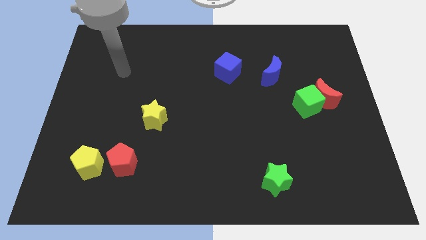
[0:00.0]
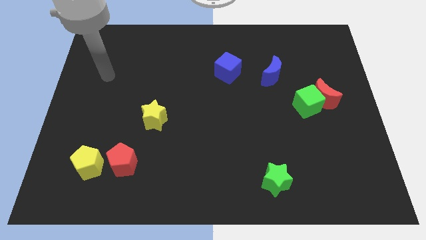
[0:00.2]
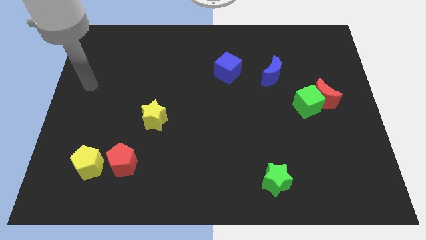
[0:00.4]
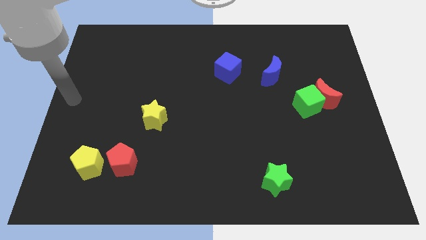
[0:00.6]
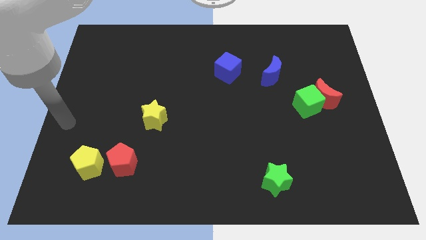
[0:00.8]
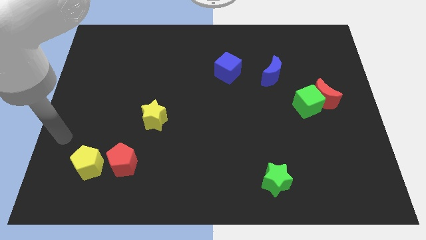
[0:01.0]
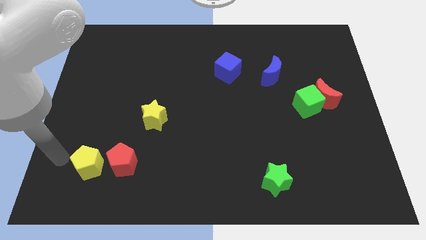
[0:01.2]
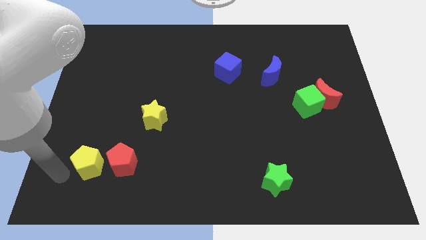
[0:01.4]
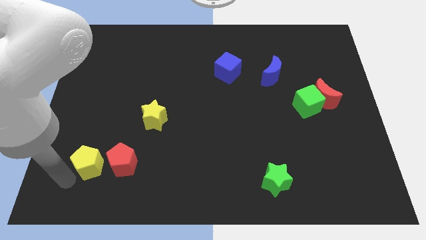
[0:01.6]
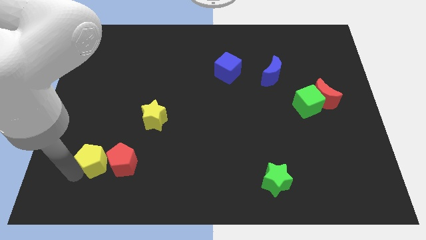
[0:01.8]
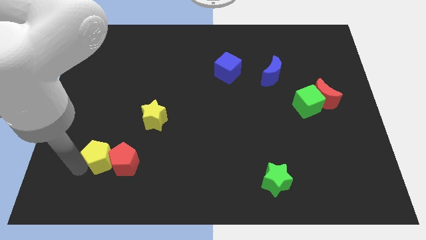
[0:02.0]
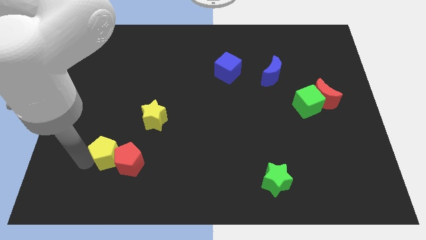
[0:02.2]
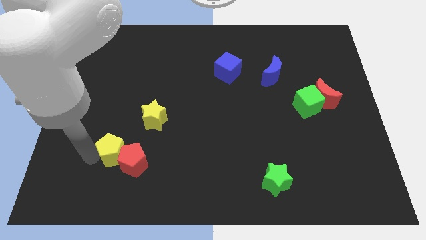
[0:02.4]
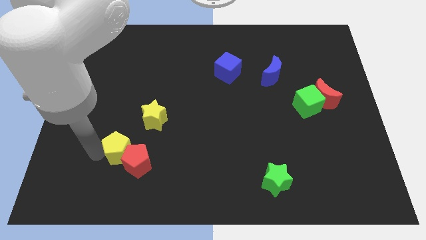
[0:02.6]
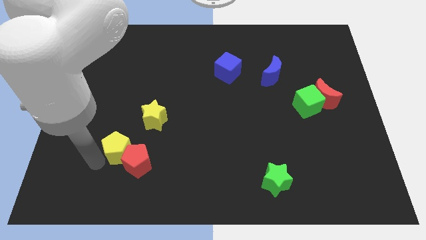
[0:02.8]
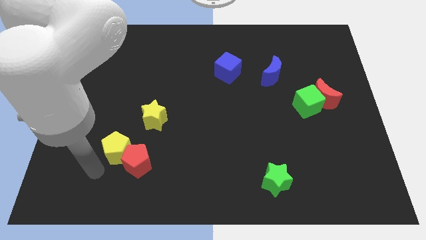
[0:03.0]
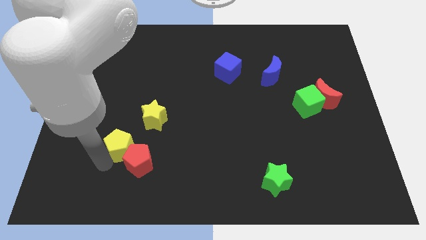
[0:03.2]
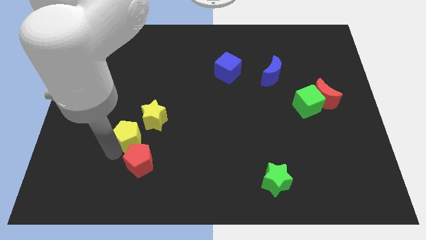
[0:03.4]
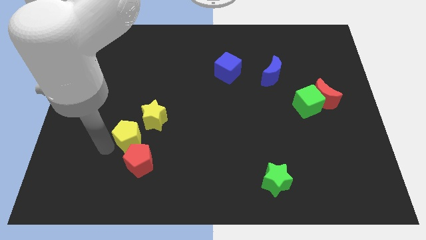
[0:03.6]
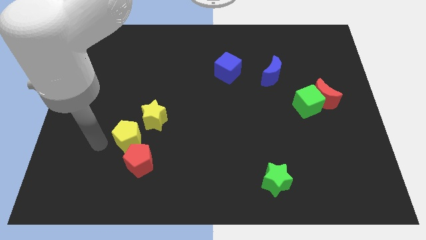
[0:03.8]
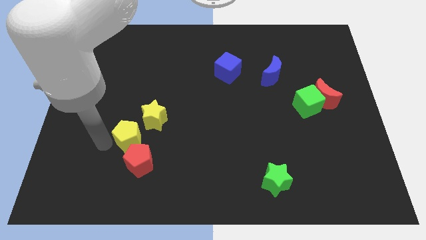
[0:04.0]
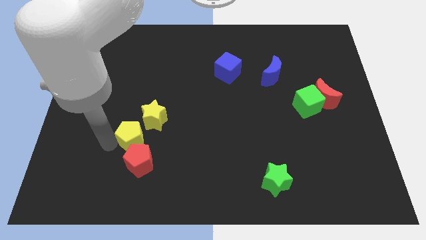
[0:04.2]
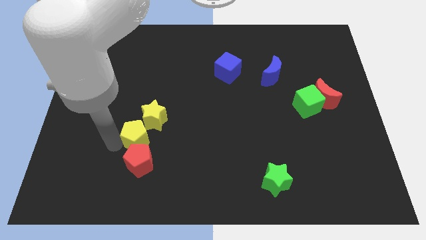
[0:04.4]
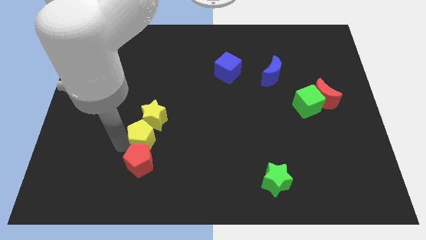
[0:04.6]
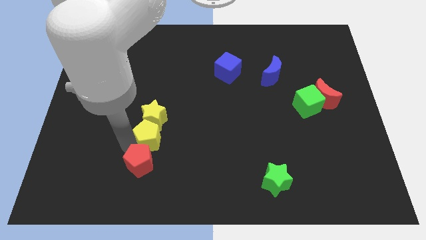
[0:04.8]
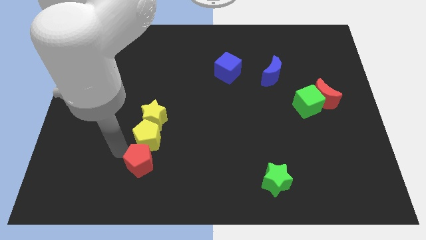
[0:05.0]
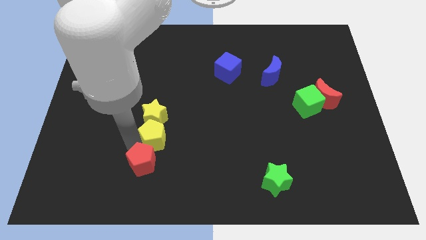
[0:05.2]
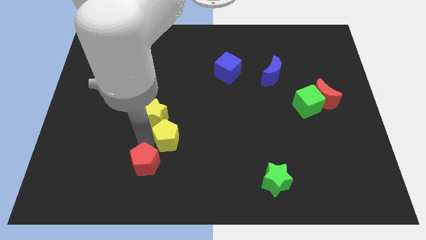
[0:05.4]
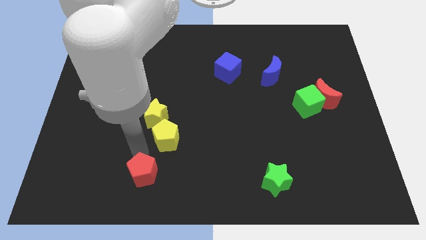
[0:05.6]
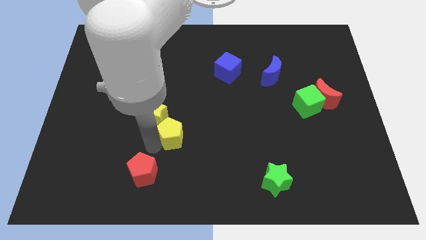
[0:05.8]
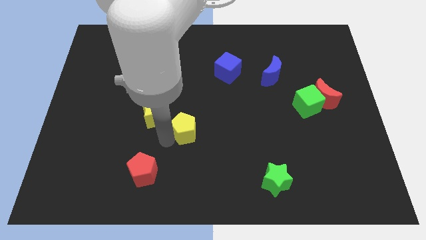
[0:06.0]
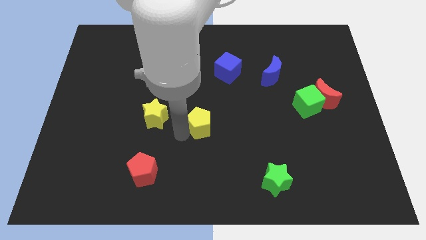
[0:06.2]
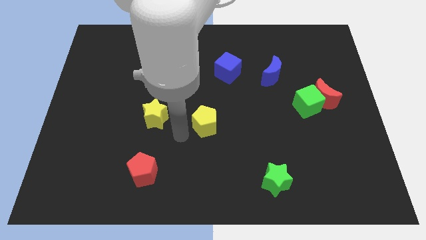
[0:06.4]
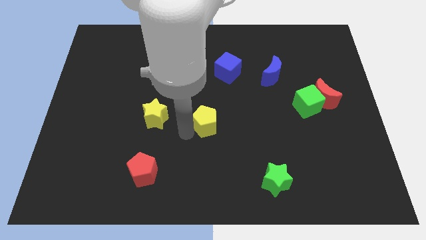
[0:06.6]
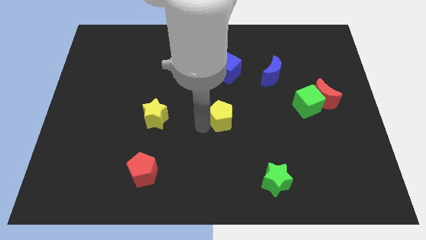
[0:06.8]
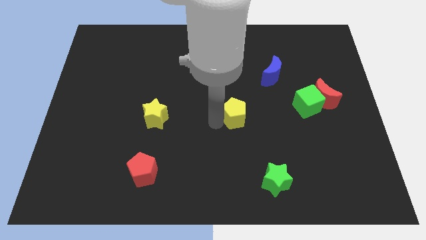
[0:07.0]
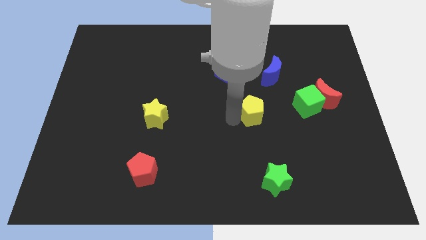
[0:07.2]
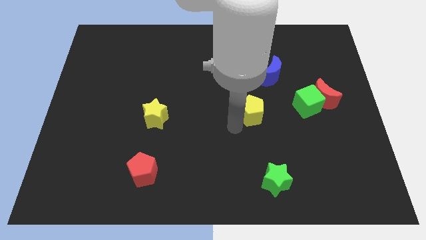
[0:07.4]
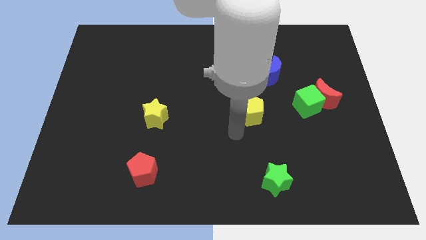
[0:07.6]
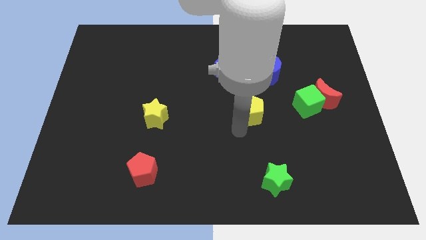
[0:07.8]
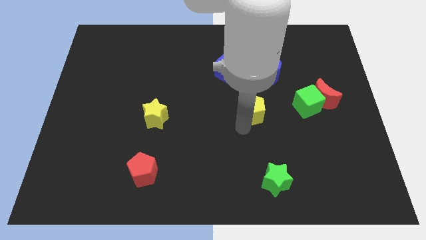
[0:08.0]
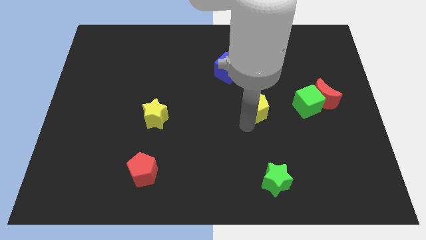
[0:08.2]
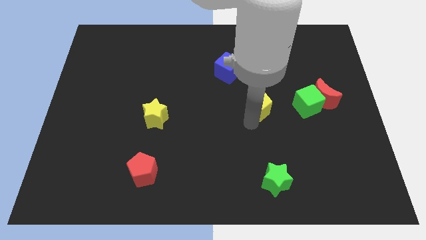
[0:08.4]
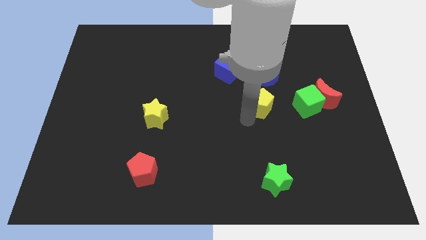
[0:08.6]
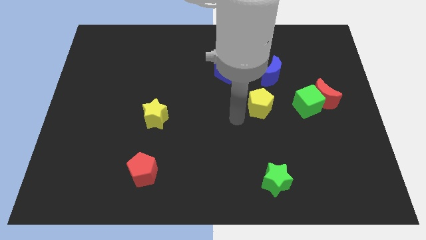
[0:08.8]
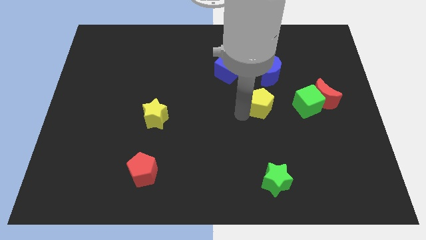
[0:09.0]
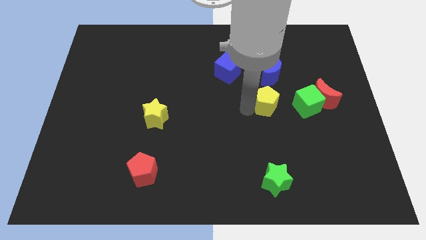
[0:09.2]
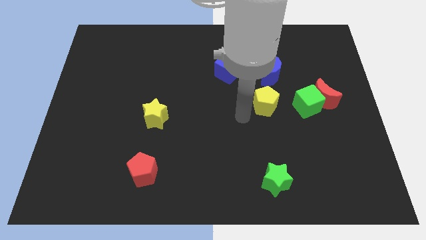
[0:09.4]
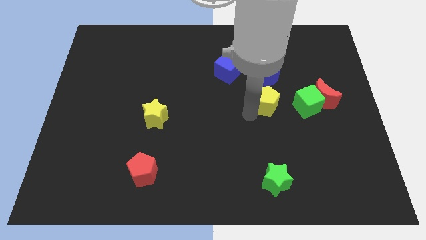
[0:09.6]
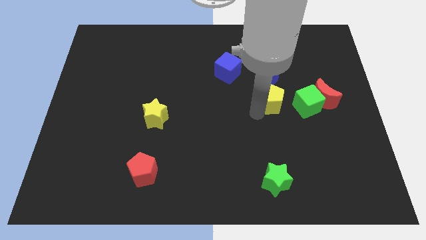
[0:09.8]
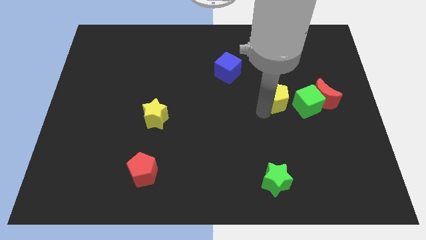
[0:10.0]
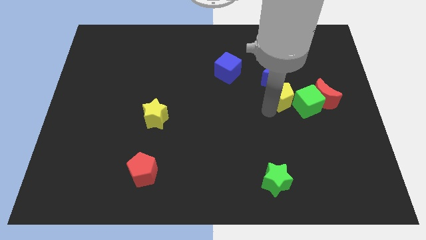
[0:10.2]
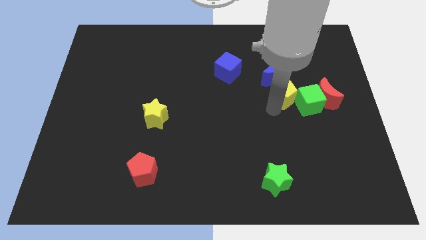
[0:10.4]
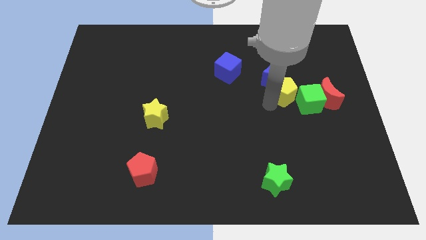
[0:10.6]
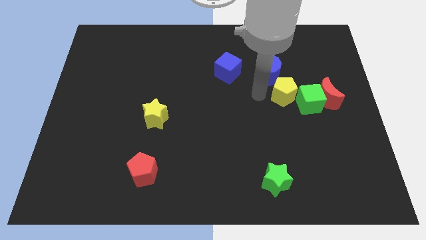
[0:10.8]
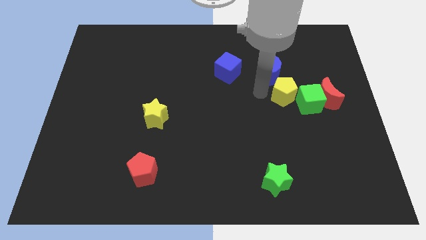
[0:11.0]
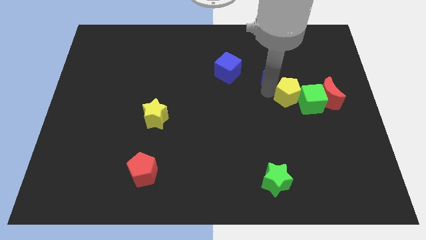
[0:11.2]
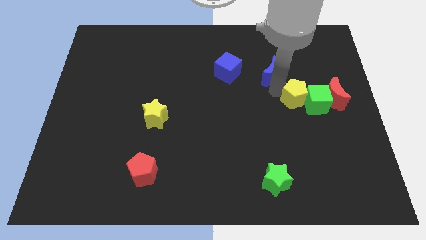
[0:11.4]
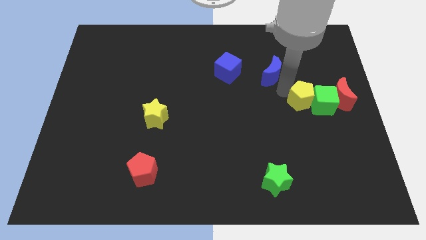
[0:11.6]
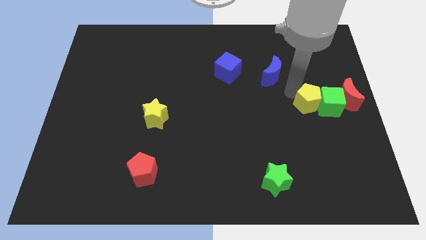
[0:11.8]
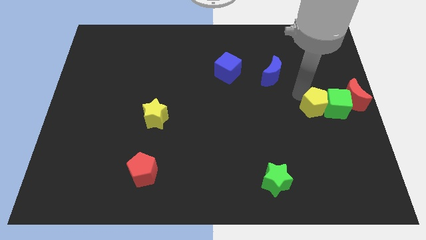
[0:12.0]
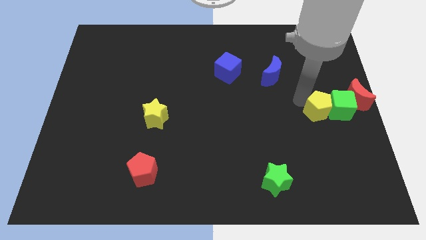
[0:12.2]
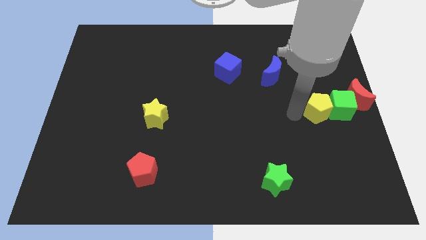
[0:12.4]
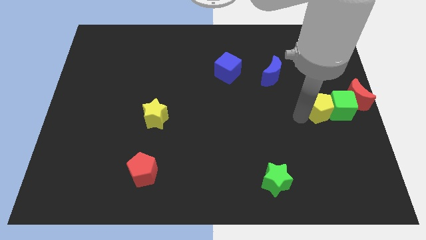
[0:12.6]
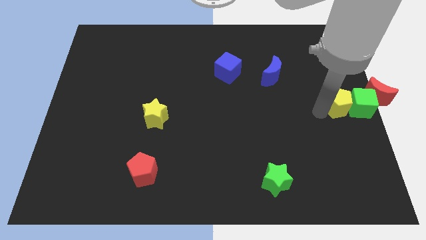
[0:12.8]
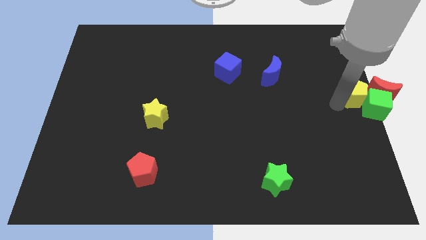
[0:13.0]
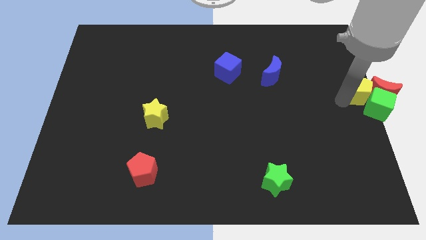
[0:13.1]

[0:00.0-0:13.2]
put the yellow pentagon to the red moon

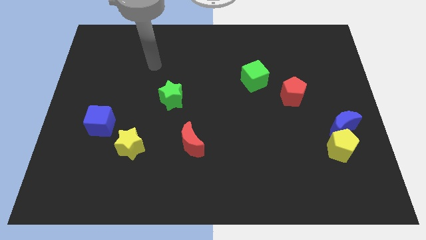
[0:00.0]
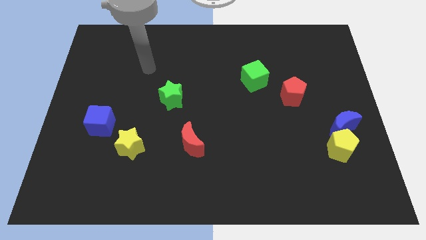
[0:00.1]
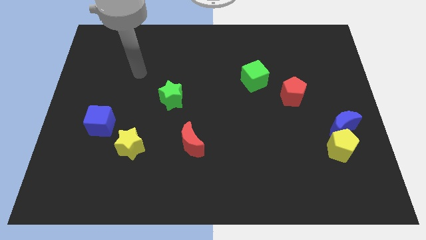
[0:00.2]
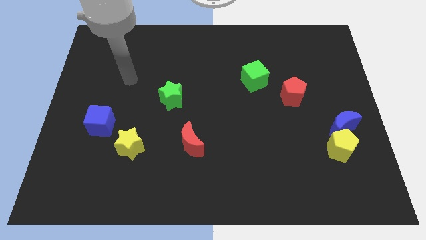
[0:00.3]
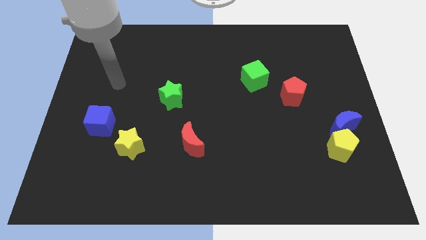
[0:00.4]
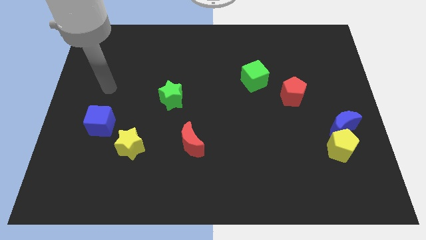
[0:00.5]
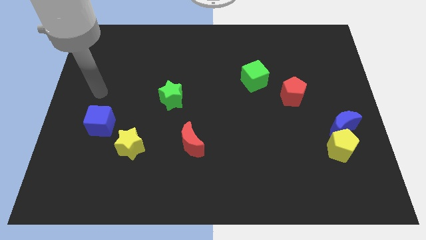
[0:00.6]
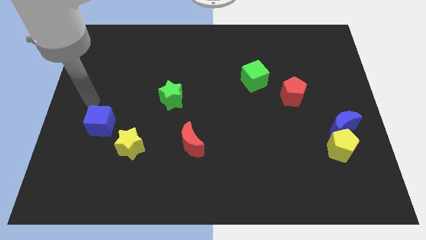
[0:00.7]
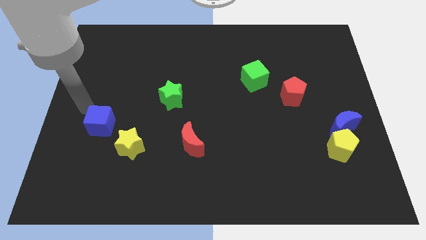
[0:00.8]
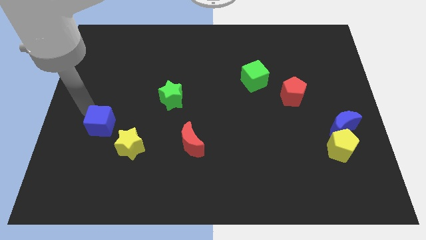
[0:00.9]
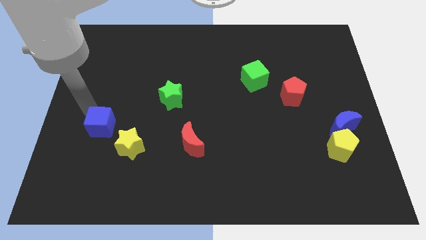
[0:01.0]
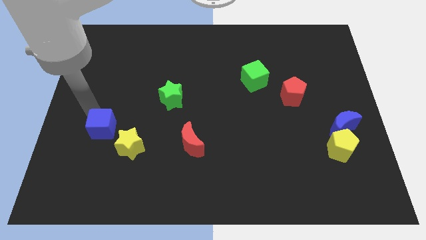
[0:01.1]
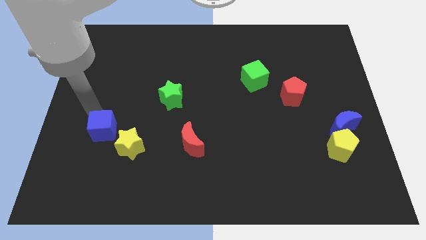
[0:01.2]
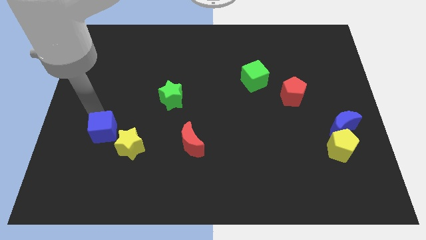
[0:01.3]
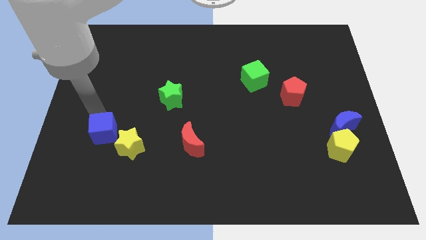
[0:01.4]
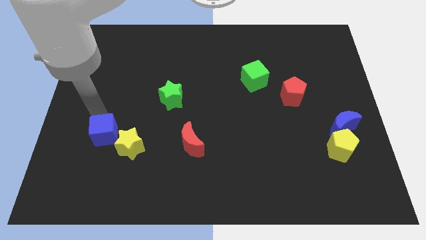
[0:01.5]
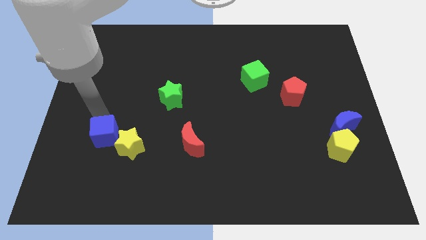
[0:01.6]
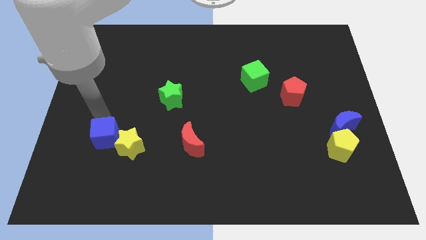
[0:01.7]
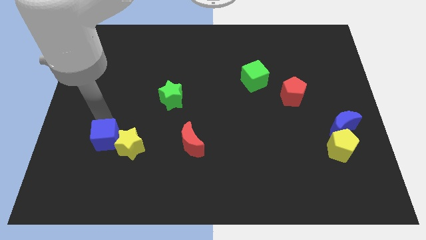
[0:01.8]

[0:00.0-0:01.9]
move the blue cube towards the yellow star
